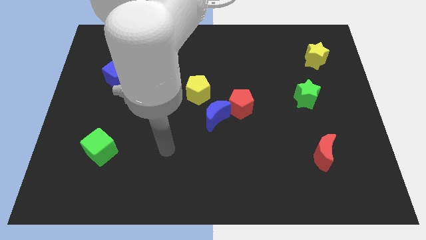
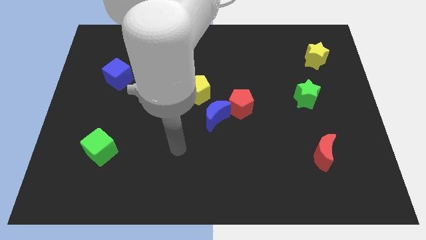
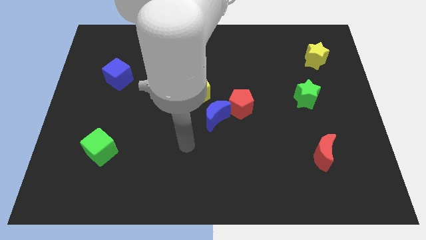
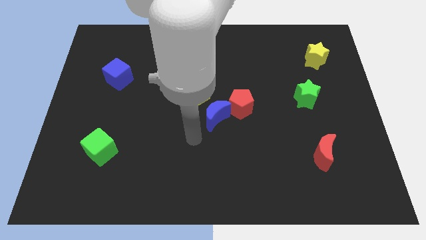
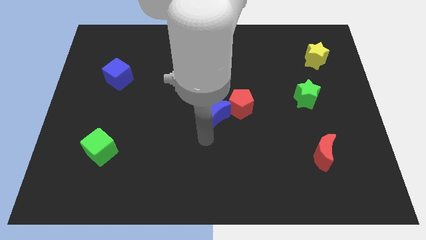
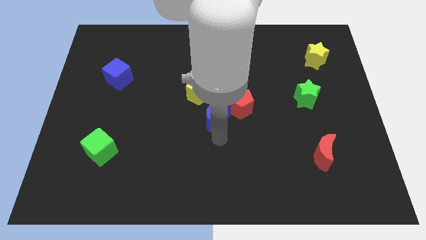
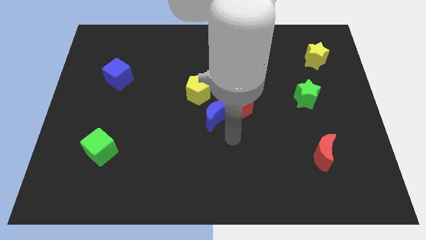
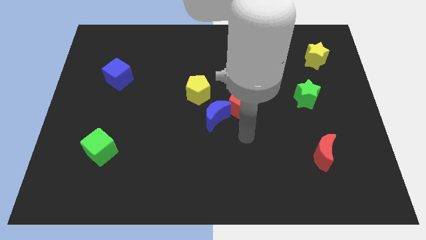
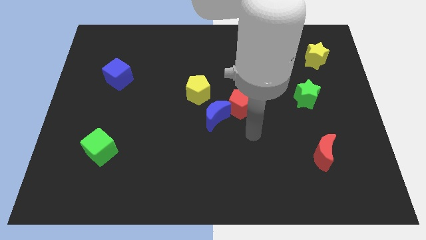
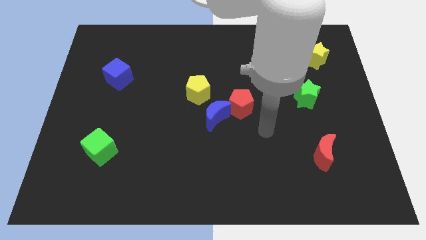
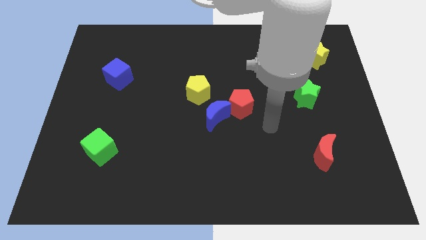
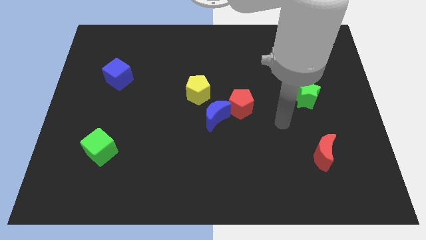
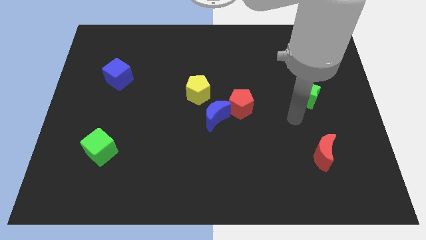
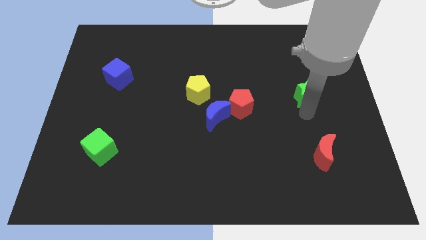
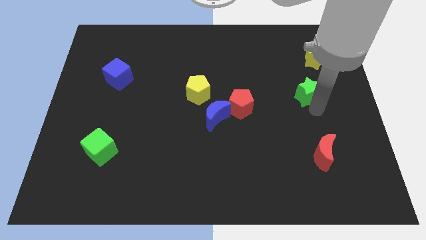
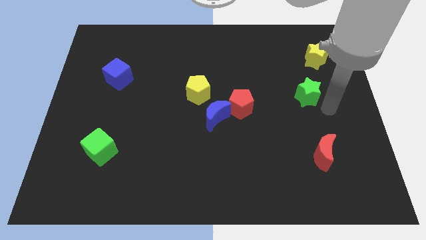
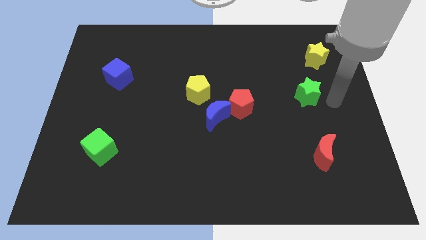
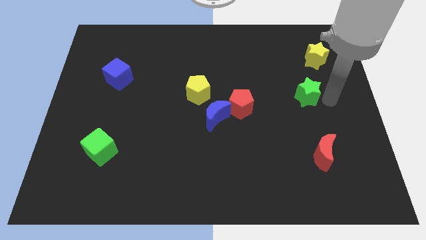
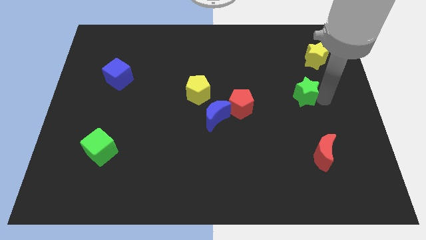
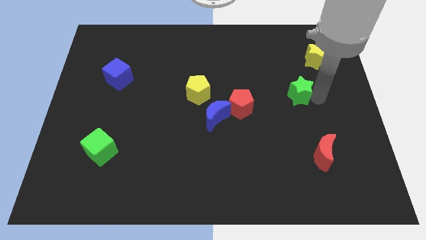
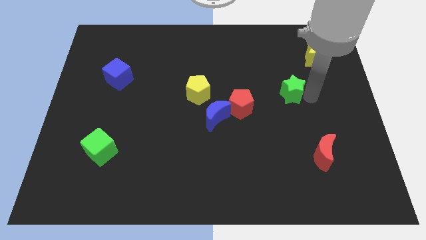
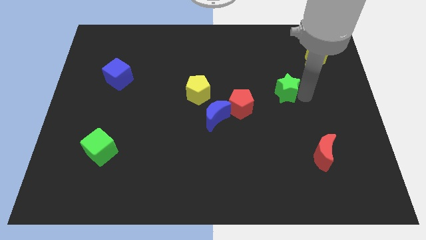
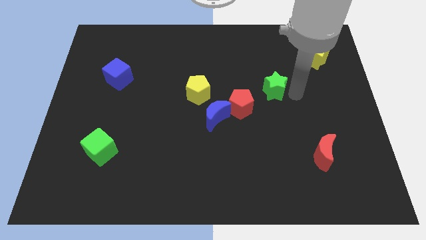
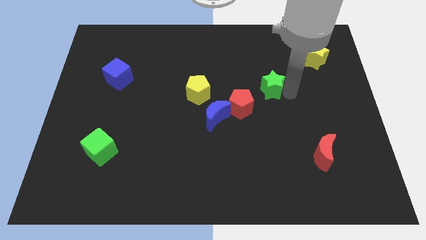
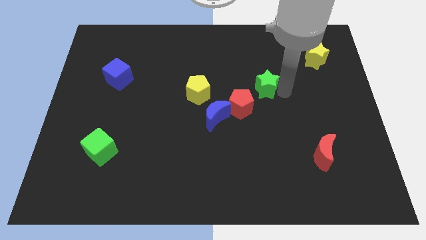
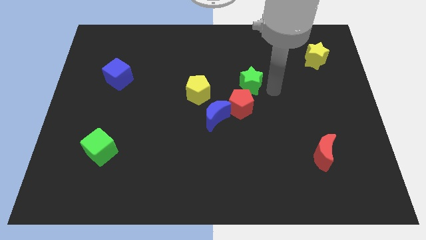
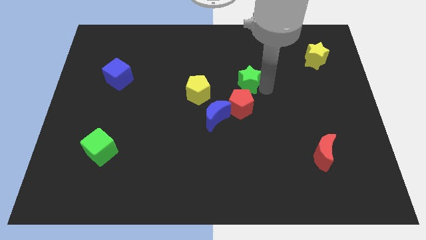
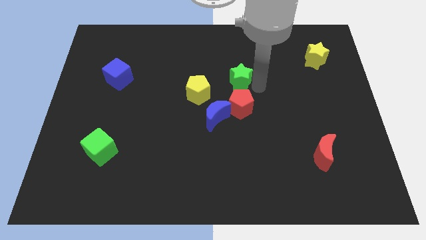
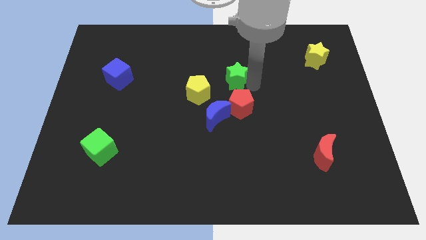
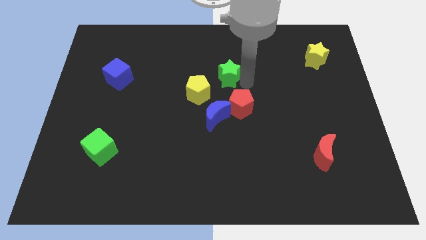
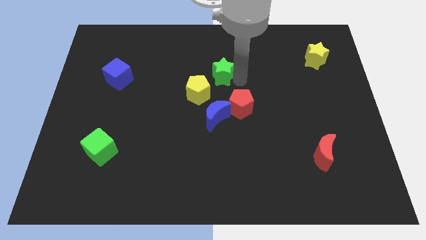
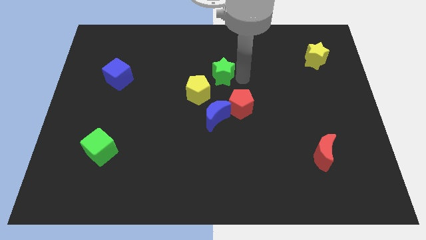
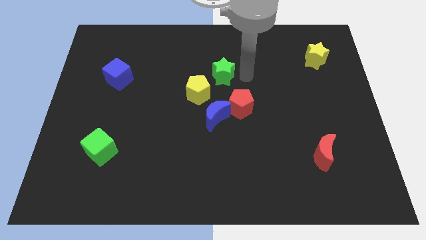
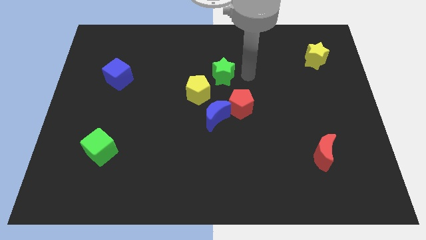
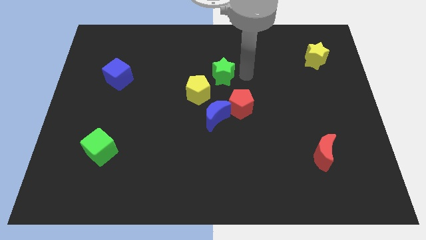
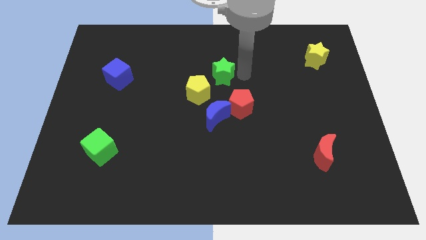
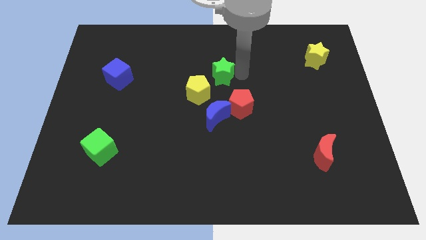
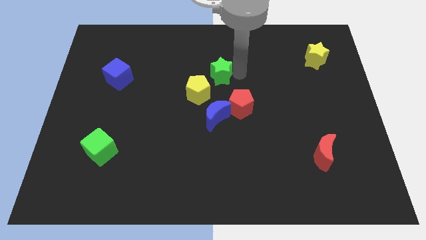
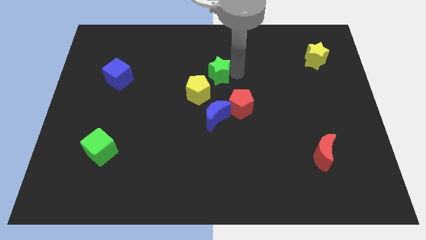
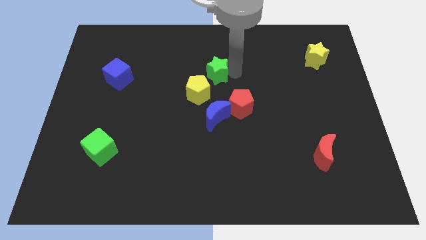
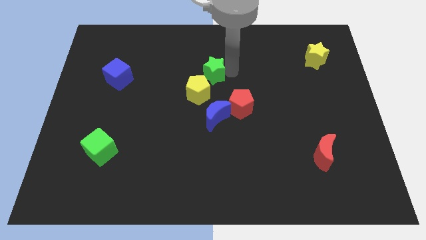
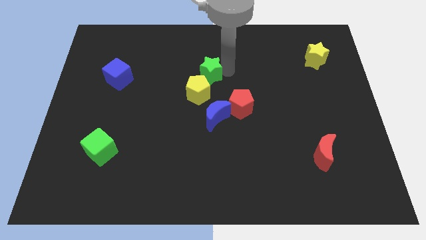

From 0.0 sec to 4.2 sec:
move the green star to the left

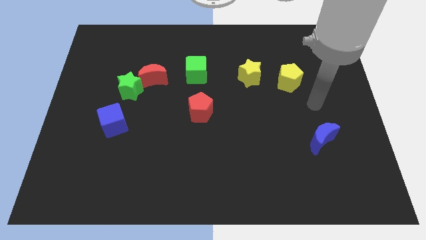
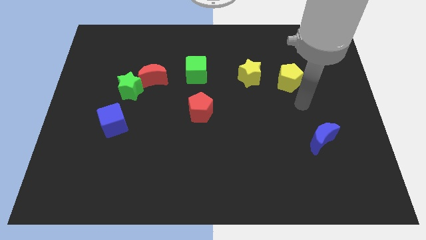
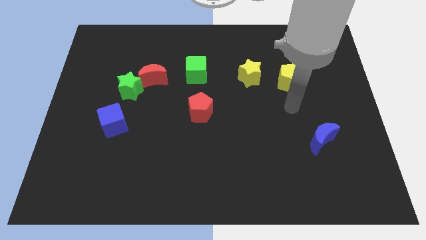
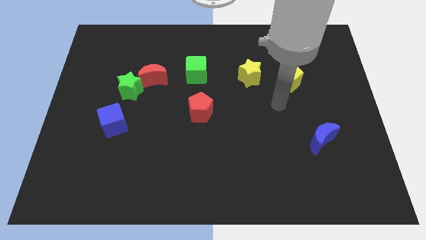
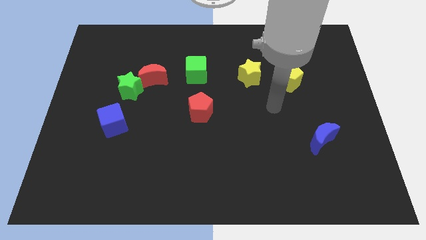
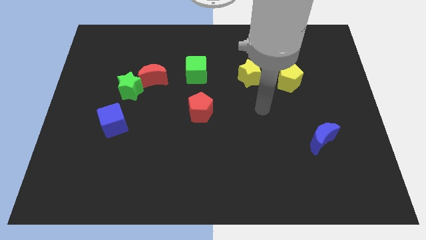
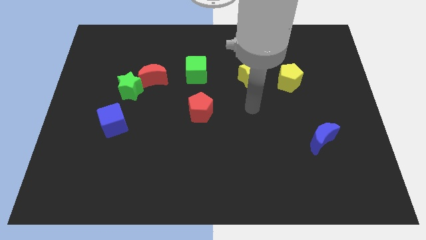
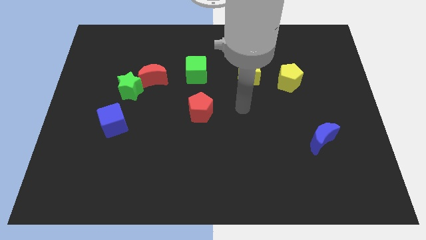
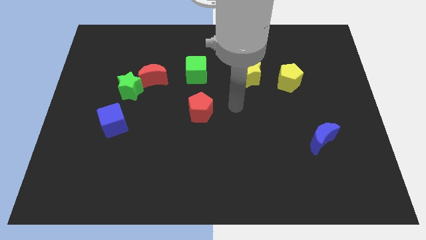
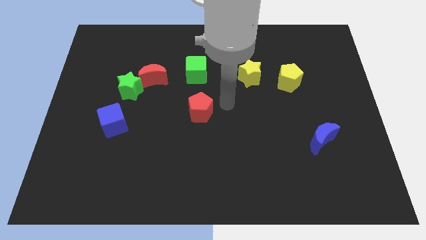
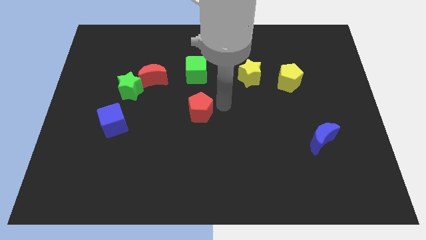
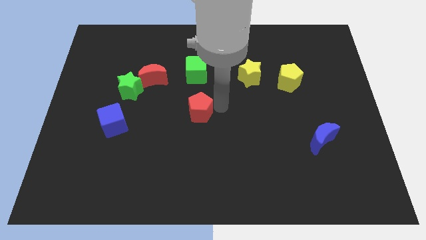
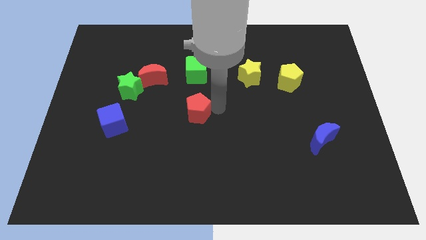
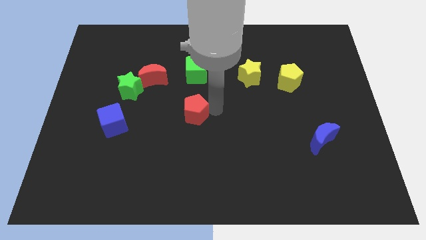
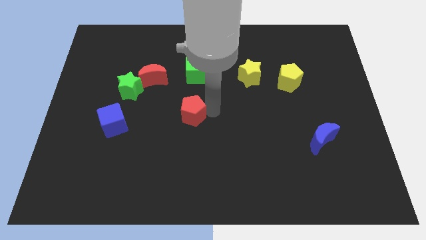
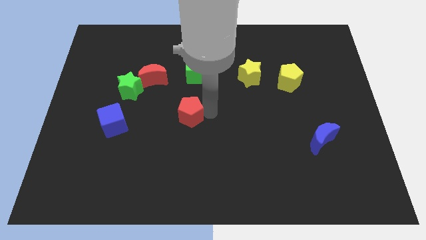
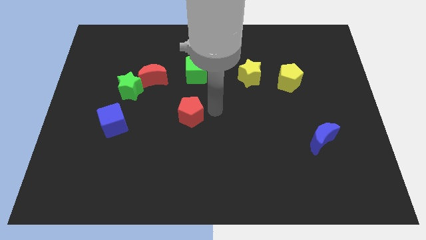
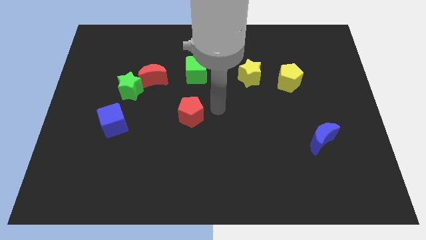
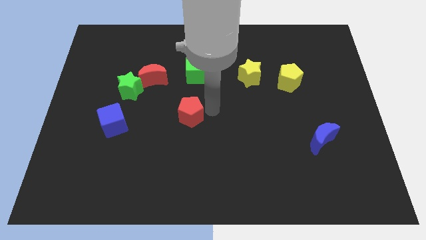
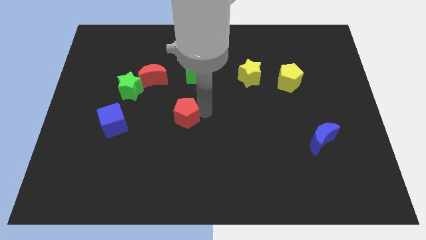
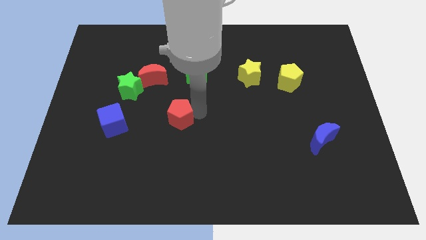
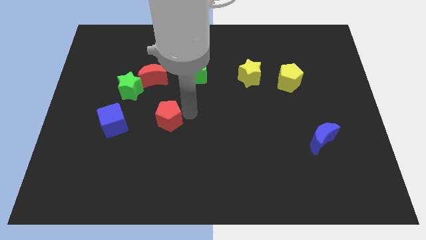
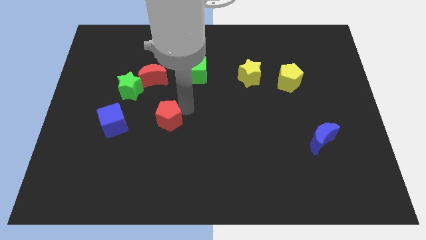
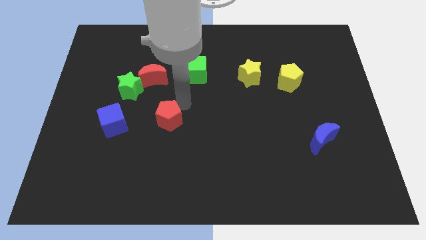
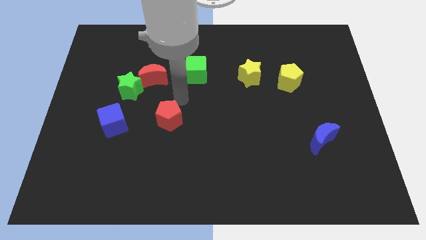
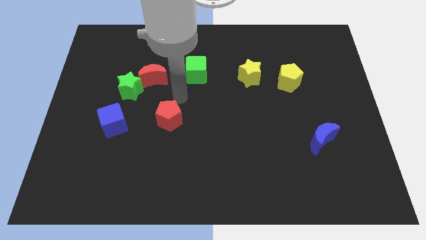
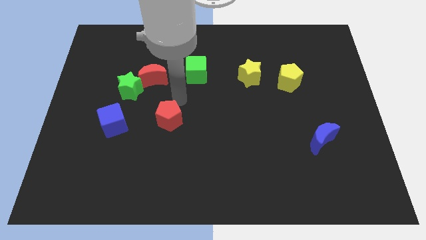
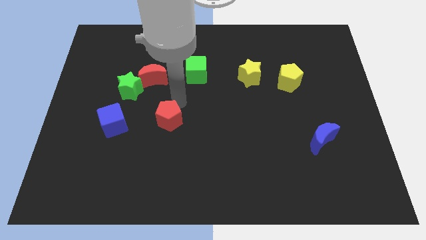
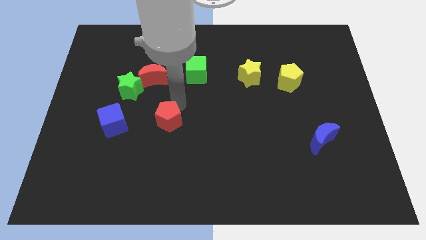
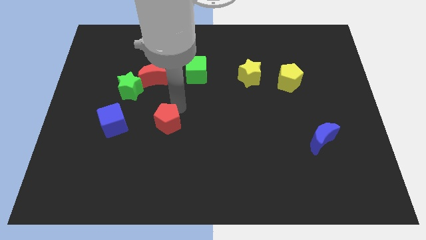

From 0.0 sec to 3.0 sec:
slide the red pentagon diagonally downwards and to the left a little bit

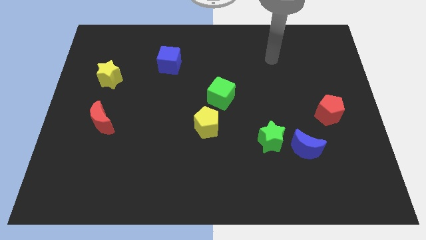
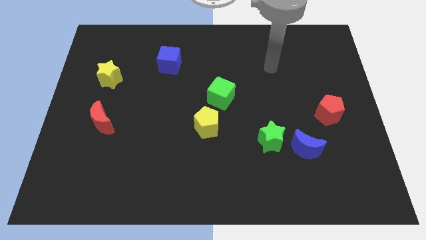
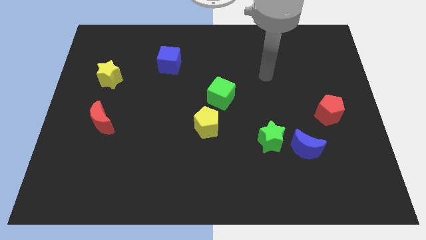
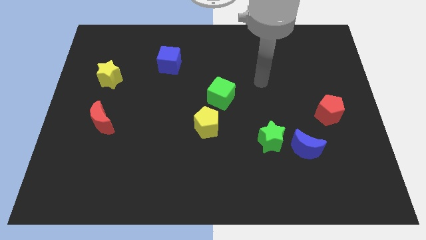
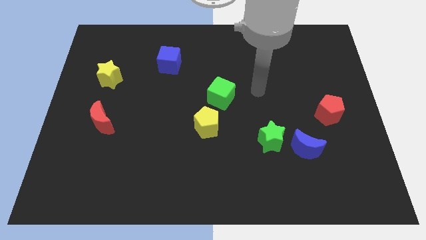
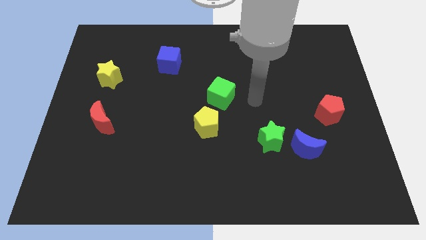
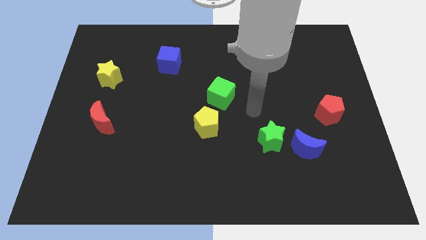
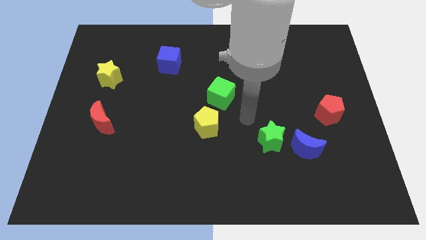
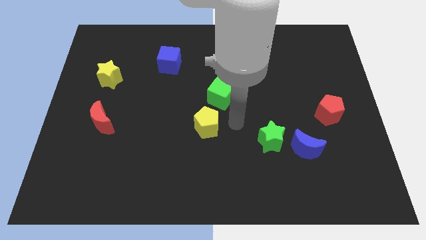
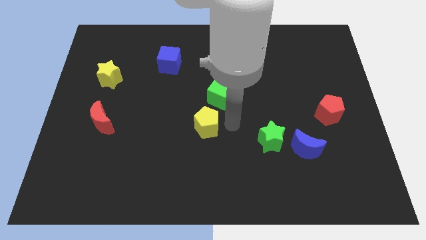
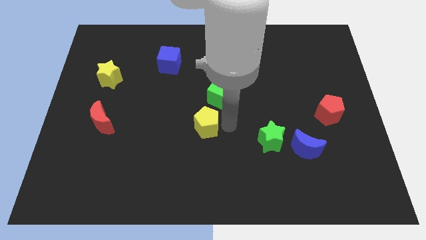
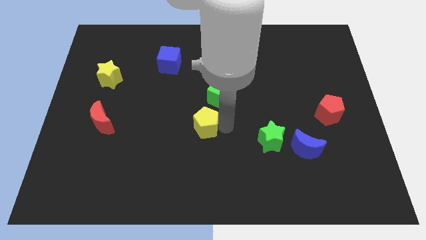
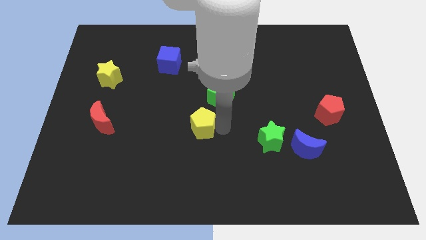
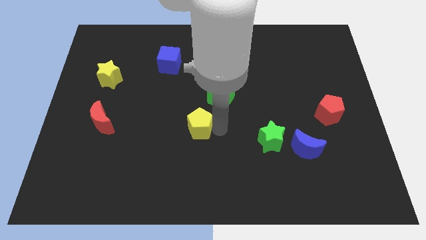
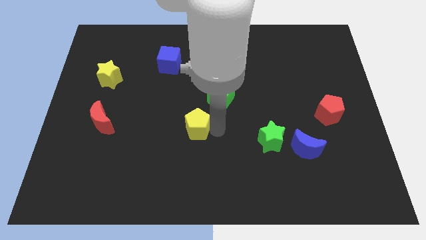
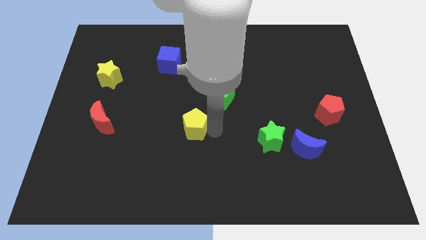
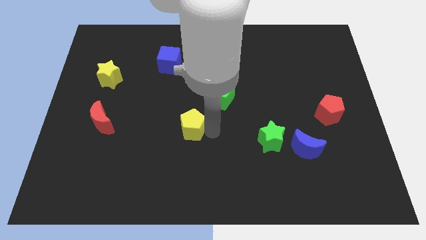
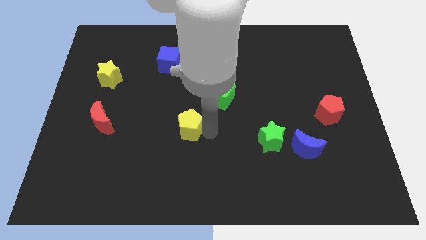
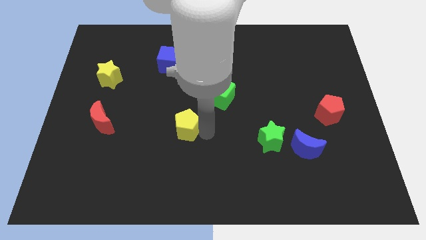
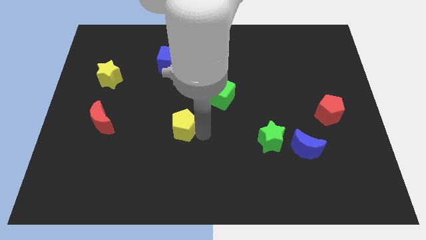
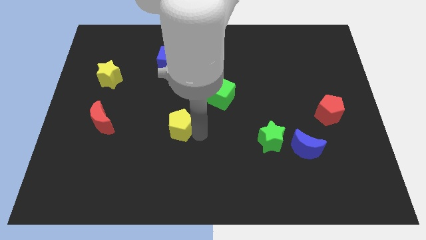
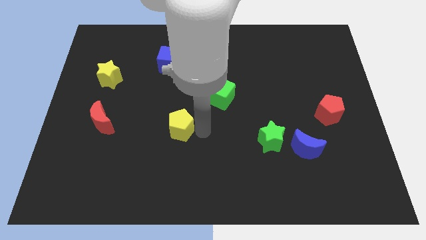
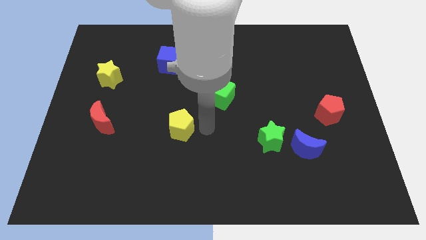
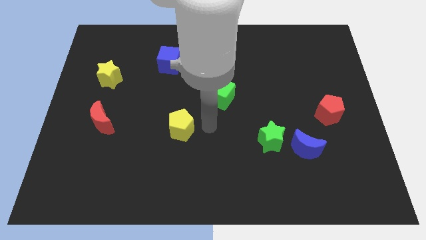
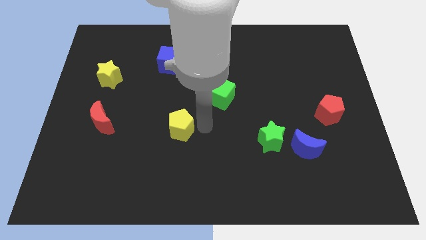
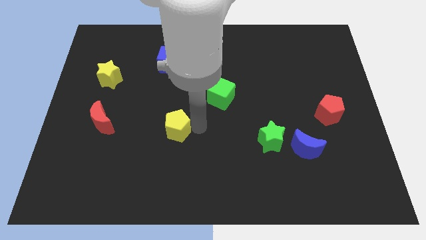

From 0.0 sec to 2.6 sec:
push the yellow pentagon to the left a little
